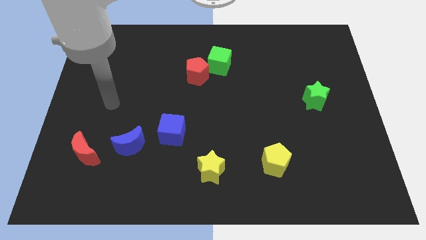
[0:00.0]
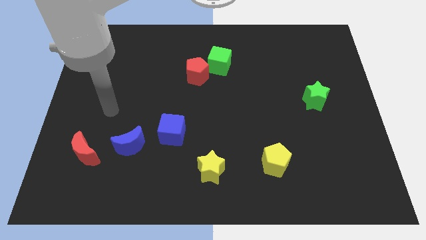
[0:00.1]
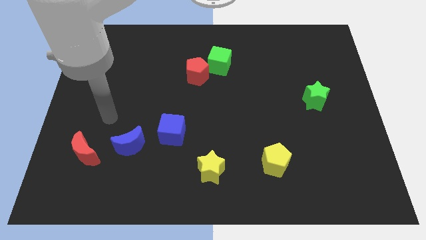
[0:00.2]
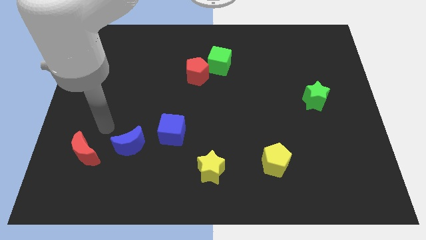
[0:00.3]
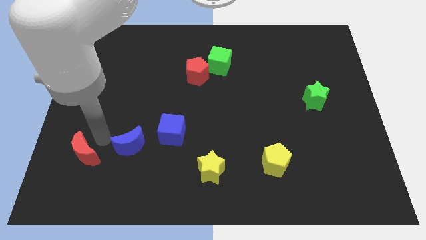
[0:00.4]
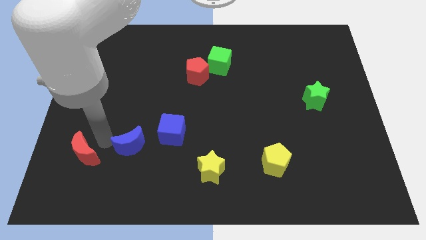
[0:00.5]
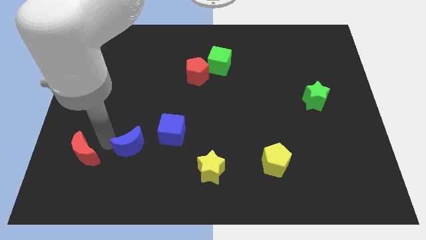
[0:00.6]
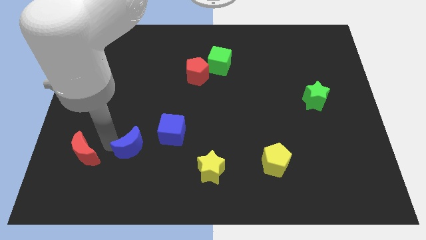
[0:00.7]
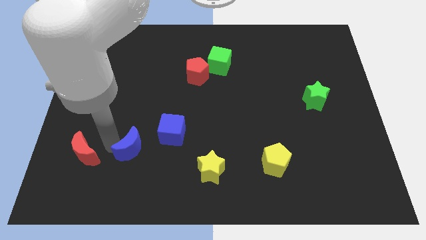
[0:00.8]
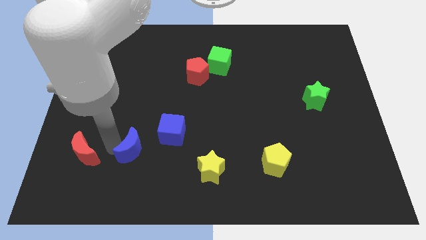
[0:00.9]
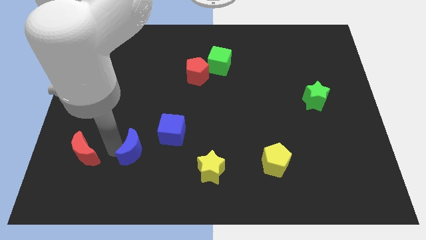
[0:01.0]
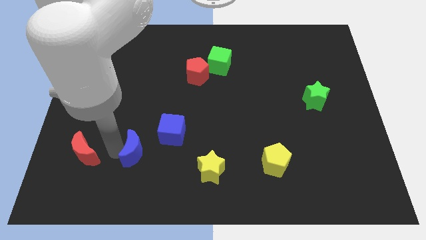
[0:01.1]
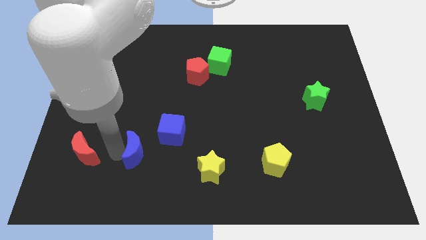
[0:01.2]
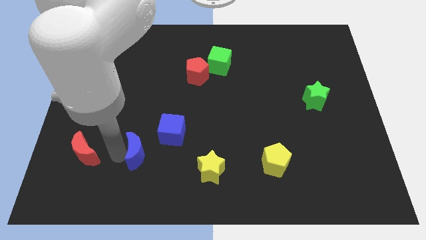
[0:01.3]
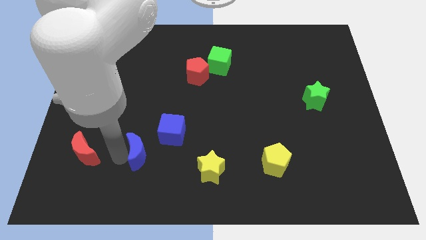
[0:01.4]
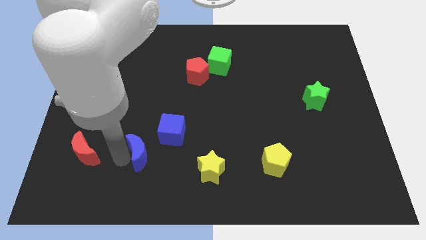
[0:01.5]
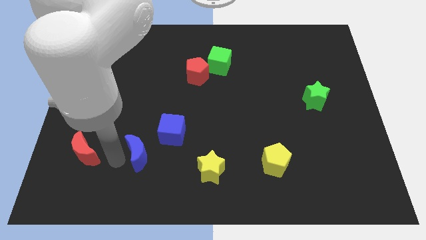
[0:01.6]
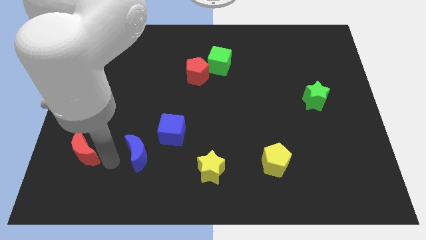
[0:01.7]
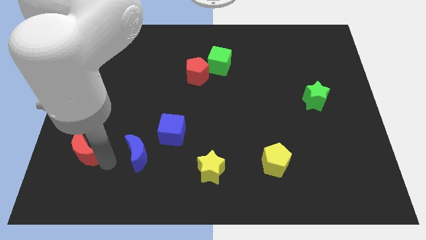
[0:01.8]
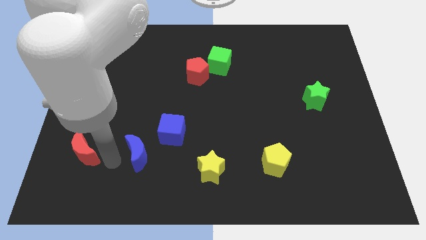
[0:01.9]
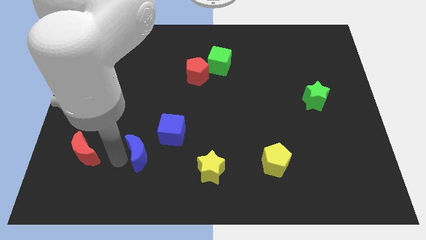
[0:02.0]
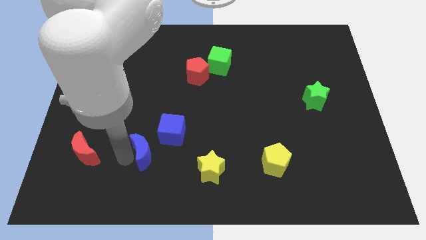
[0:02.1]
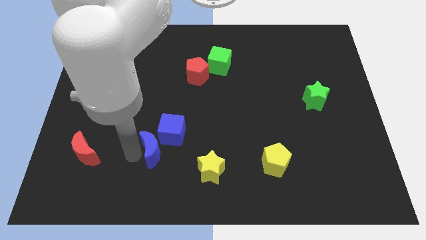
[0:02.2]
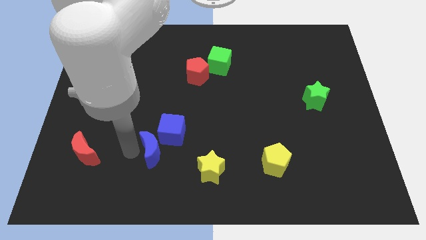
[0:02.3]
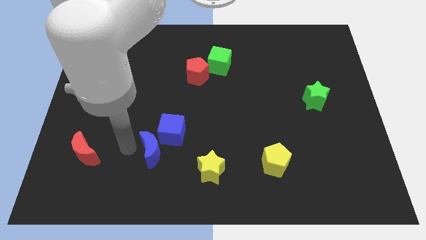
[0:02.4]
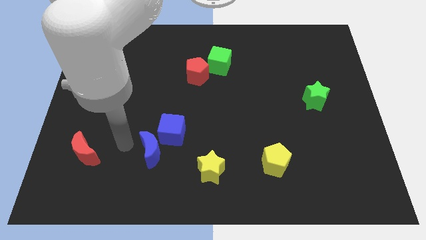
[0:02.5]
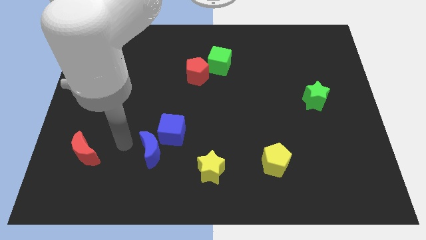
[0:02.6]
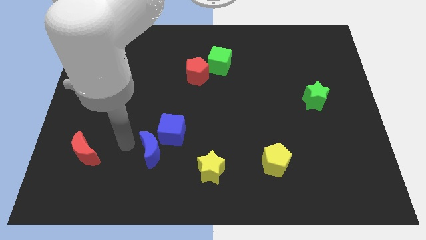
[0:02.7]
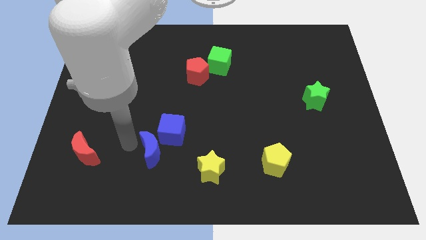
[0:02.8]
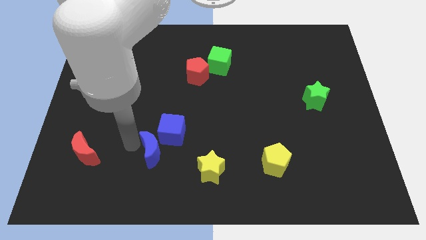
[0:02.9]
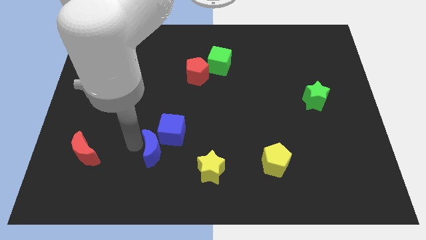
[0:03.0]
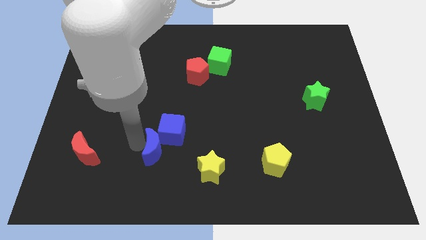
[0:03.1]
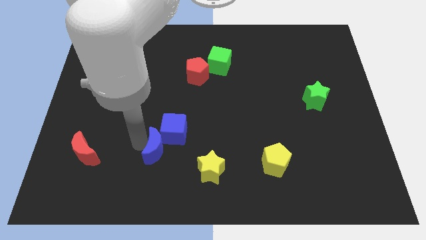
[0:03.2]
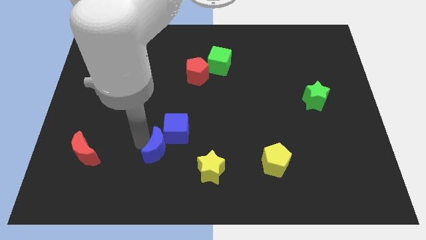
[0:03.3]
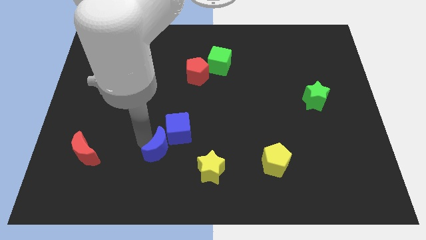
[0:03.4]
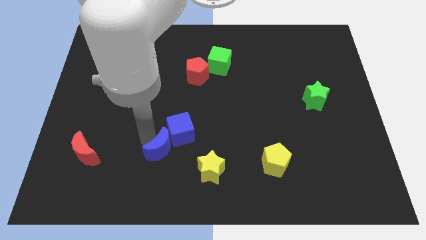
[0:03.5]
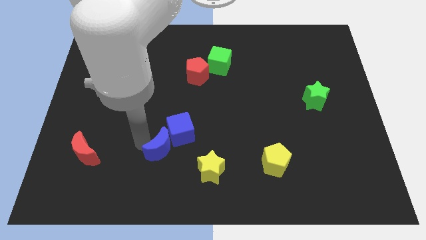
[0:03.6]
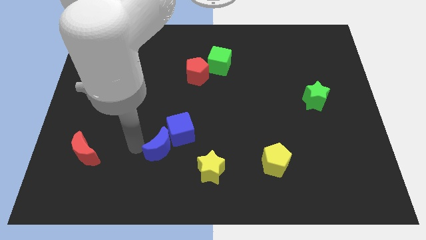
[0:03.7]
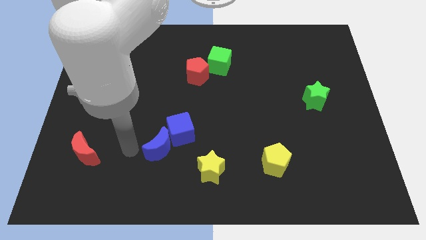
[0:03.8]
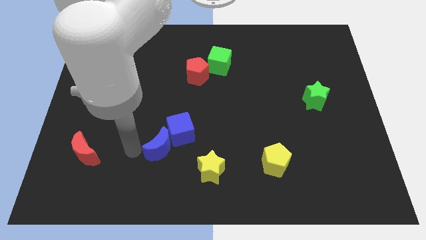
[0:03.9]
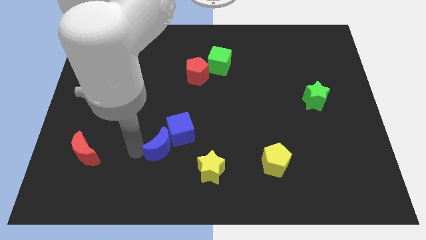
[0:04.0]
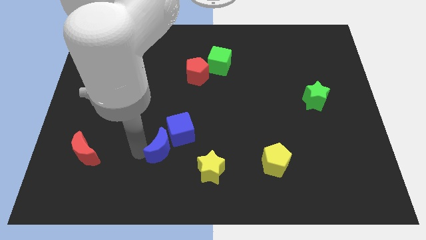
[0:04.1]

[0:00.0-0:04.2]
slightly push the blue moon right

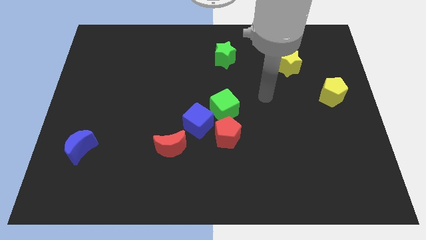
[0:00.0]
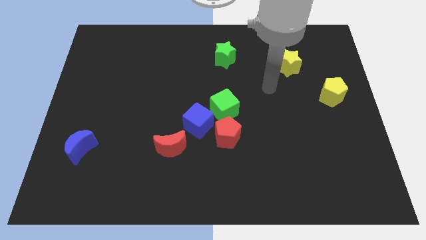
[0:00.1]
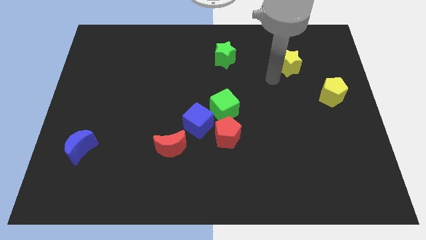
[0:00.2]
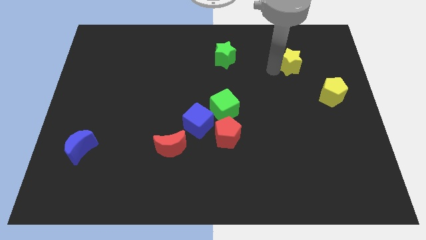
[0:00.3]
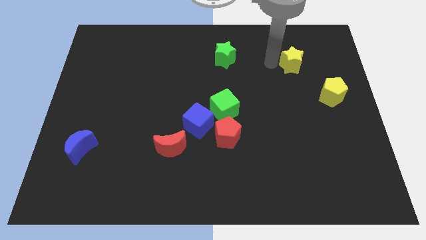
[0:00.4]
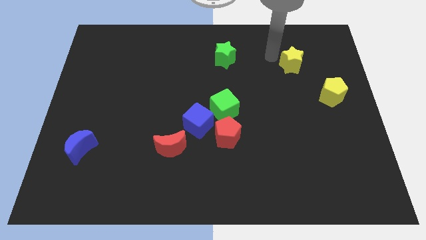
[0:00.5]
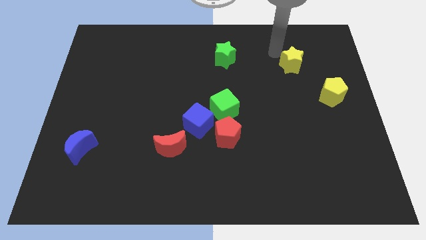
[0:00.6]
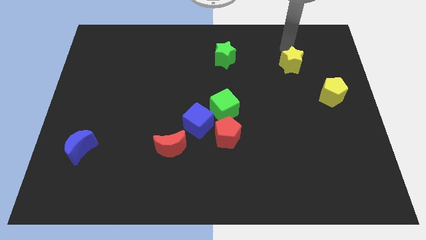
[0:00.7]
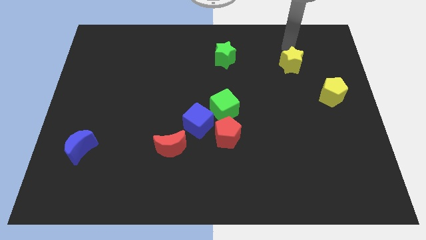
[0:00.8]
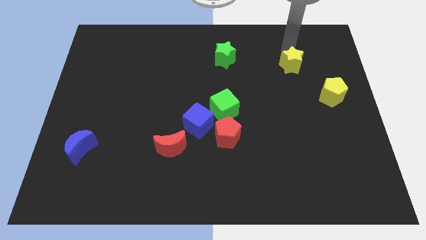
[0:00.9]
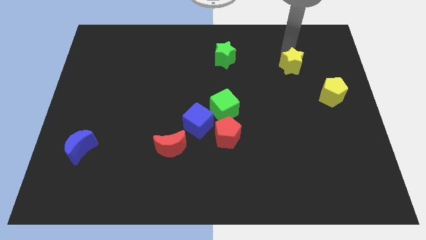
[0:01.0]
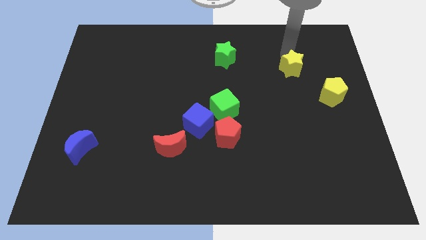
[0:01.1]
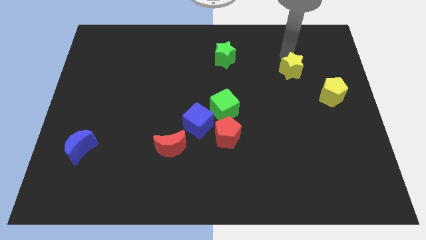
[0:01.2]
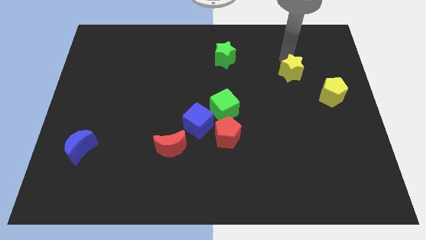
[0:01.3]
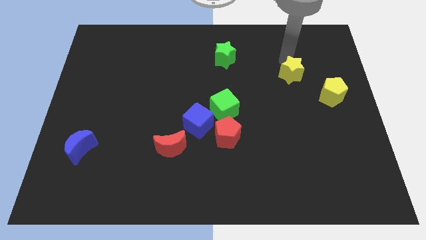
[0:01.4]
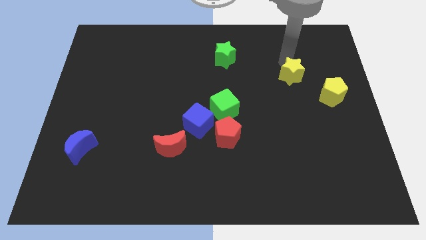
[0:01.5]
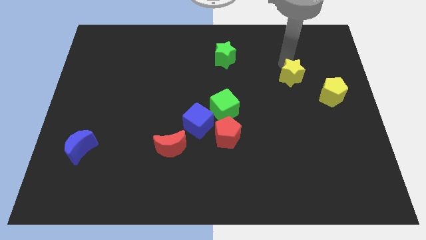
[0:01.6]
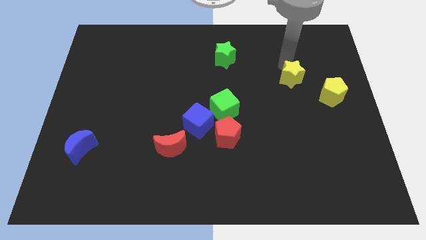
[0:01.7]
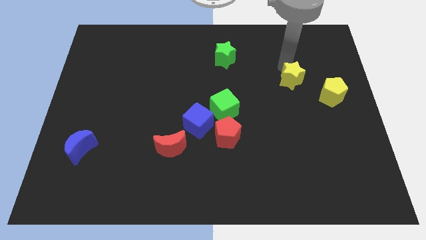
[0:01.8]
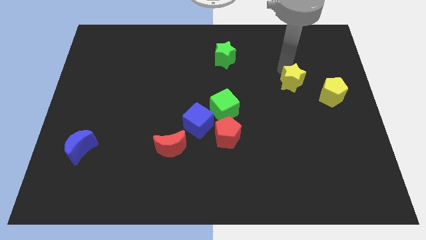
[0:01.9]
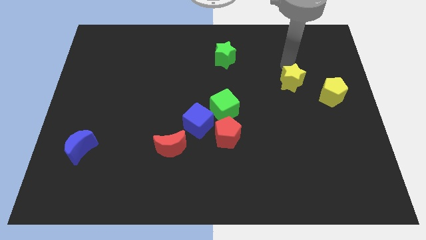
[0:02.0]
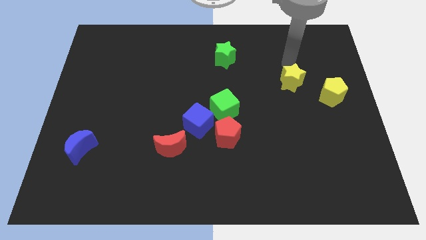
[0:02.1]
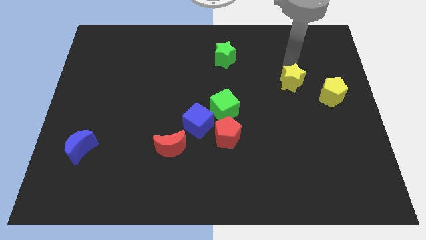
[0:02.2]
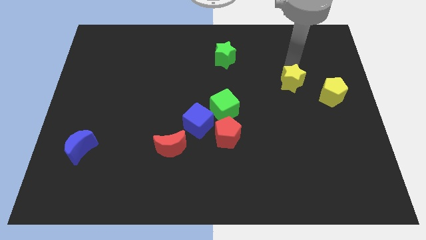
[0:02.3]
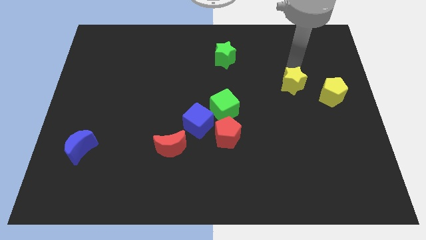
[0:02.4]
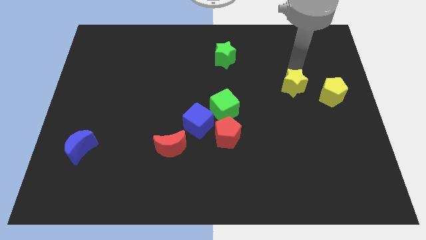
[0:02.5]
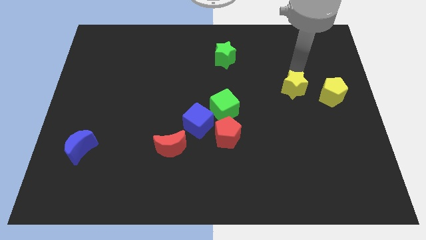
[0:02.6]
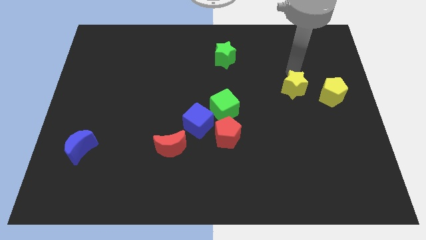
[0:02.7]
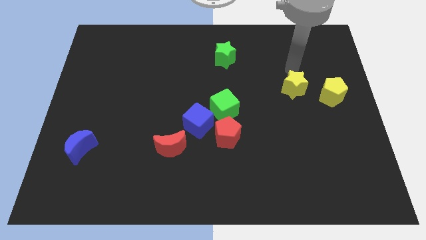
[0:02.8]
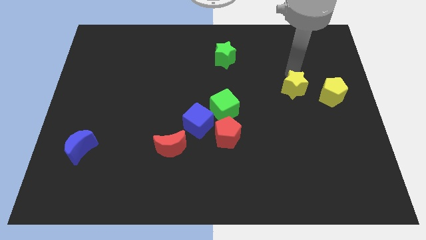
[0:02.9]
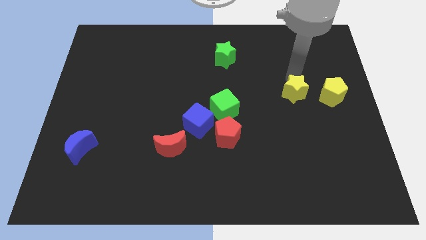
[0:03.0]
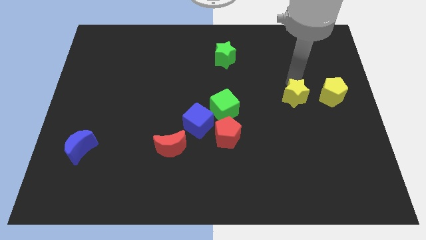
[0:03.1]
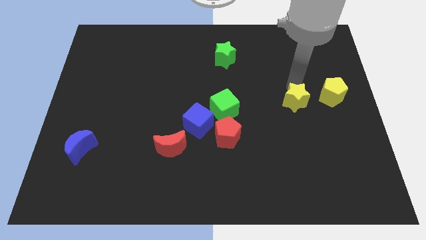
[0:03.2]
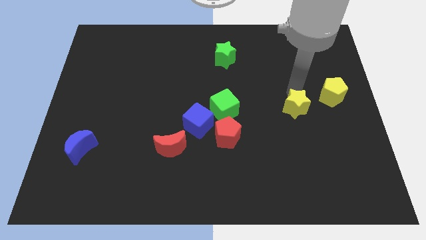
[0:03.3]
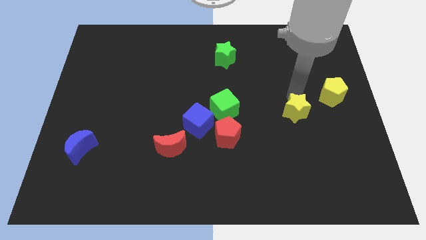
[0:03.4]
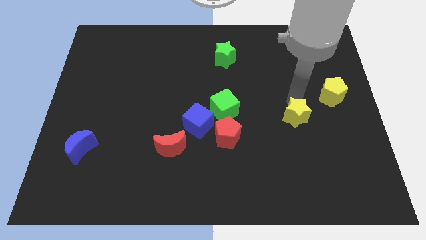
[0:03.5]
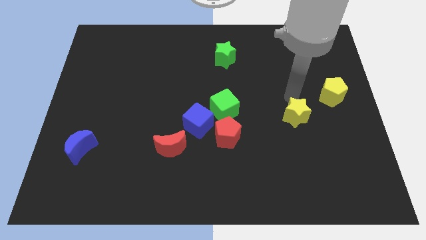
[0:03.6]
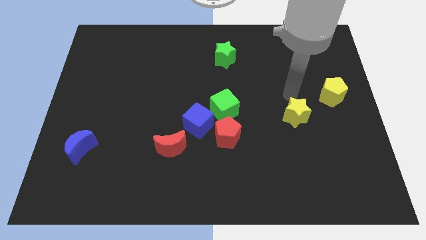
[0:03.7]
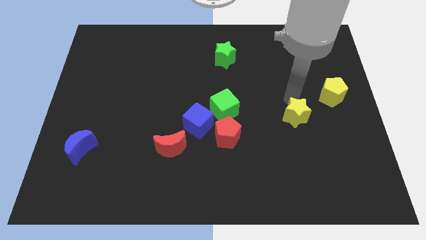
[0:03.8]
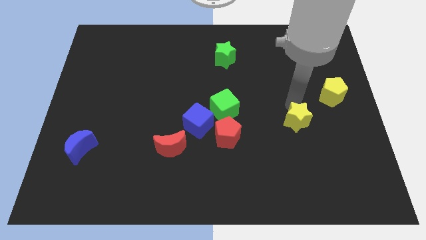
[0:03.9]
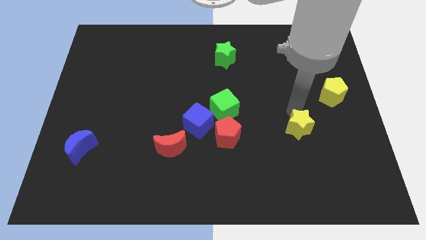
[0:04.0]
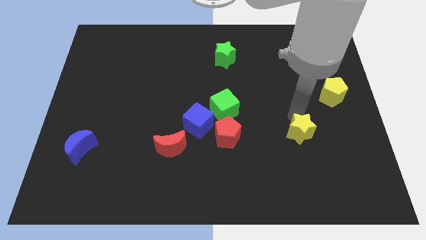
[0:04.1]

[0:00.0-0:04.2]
push the yellow star downwards
